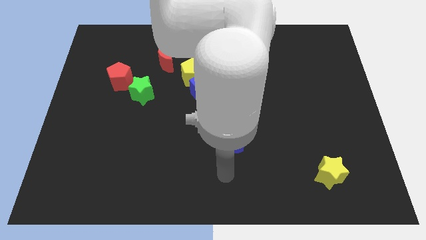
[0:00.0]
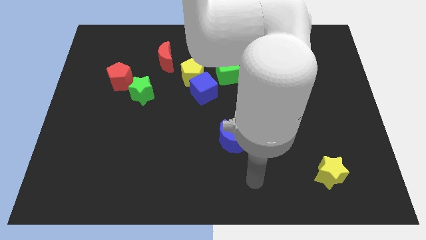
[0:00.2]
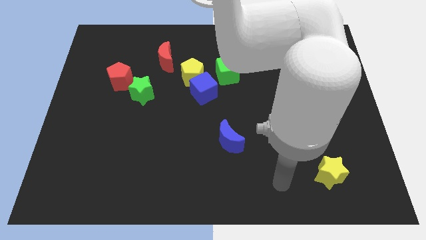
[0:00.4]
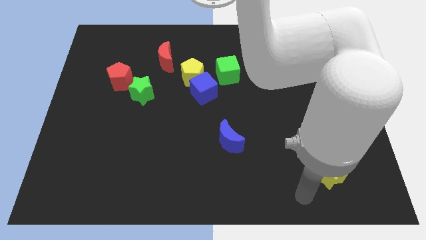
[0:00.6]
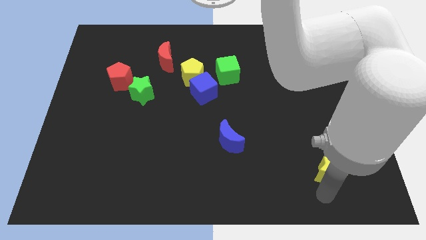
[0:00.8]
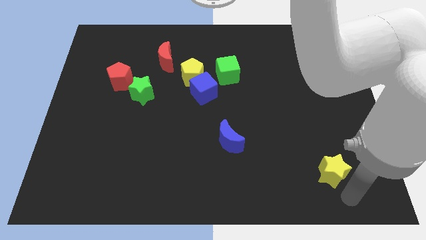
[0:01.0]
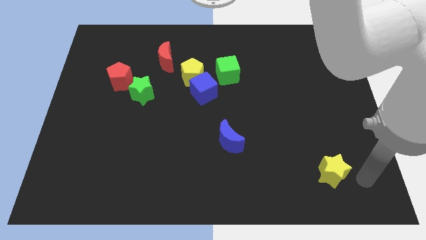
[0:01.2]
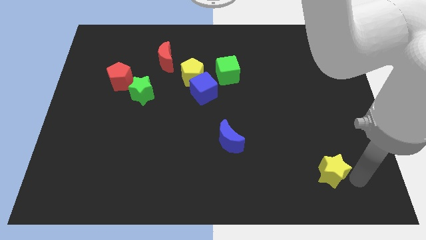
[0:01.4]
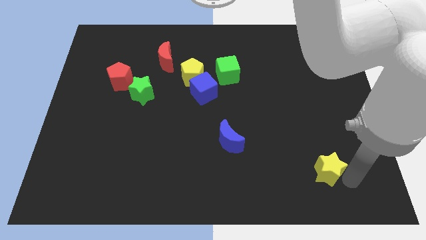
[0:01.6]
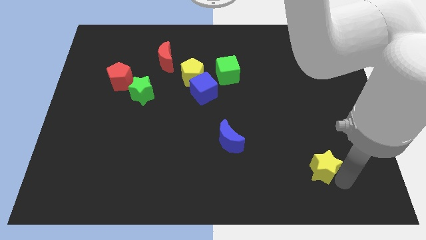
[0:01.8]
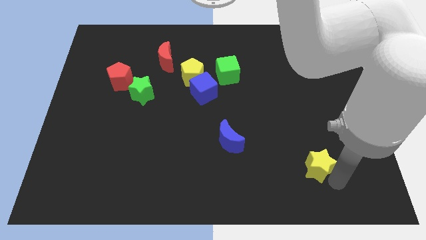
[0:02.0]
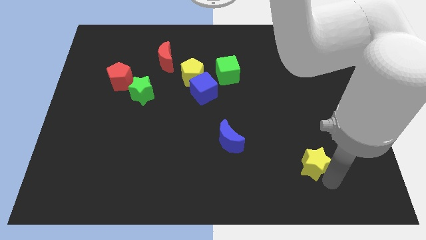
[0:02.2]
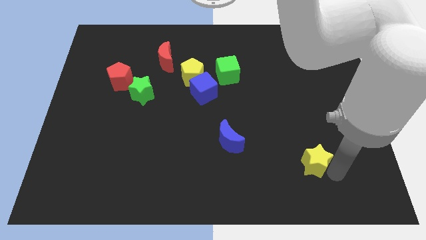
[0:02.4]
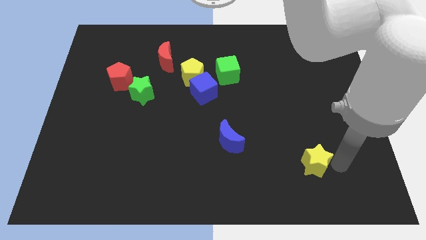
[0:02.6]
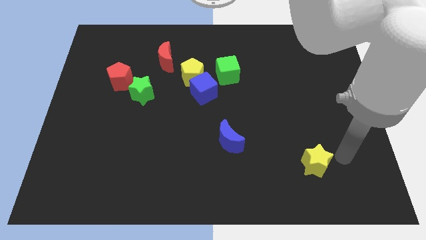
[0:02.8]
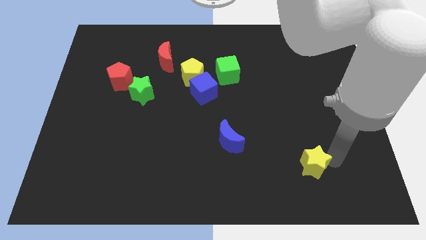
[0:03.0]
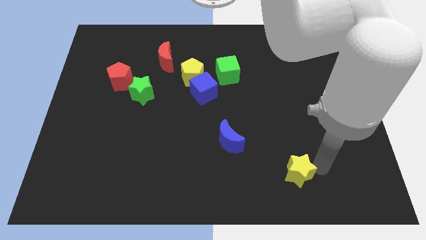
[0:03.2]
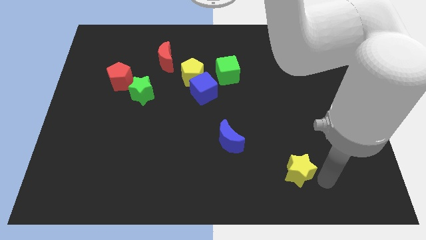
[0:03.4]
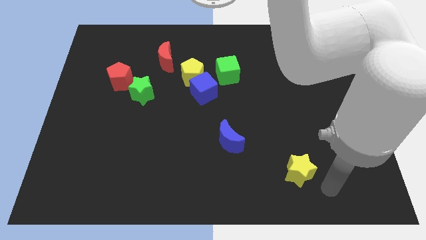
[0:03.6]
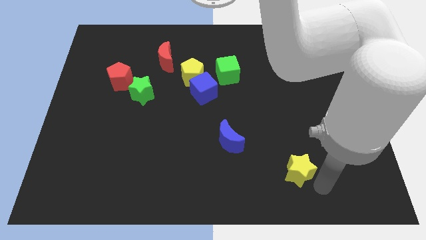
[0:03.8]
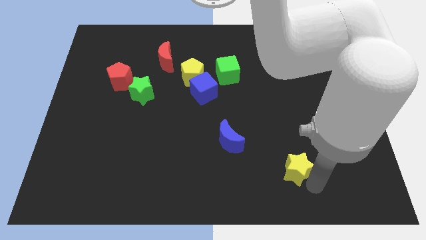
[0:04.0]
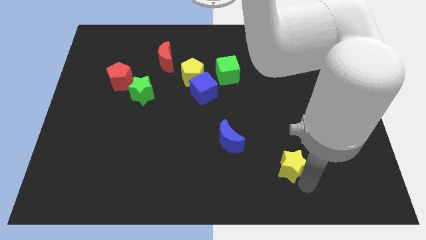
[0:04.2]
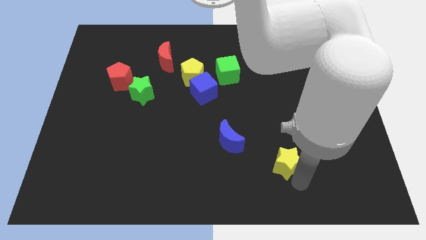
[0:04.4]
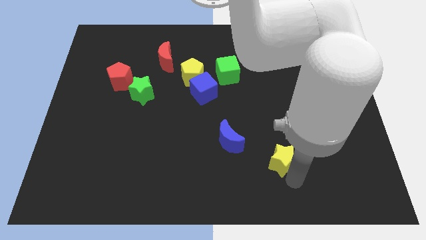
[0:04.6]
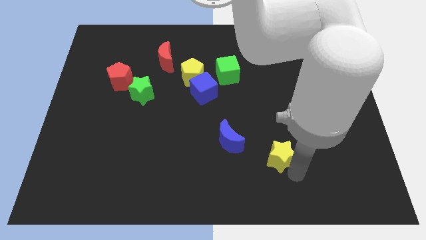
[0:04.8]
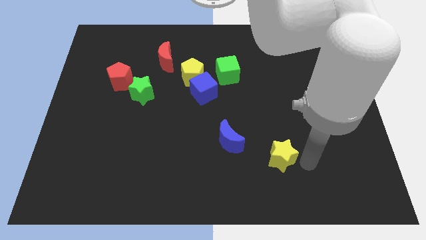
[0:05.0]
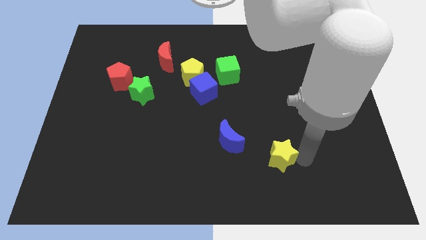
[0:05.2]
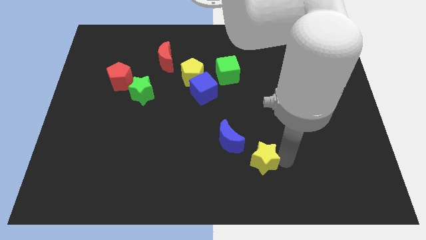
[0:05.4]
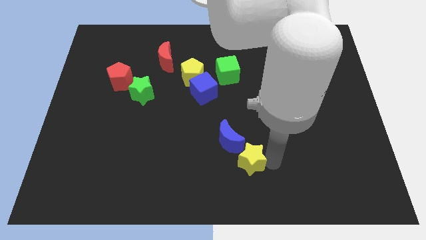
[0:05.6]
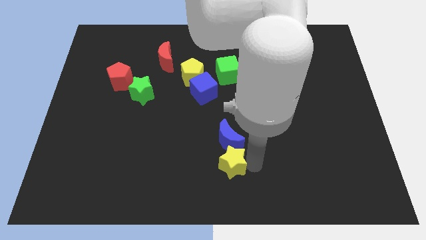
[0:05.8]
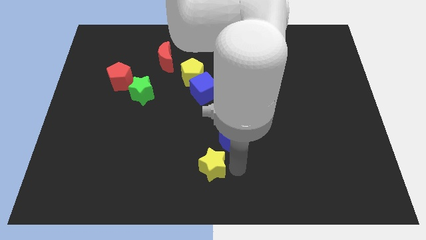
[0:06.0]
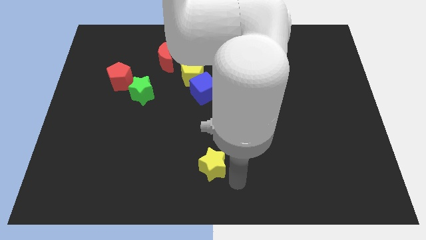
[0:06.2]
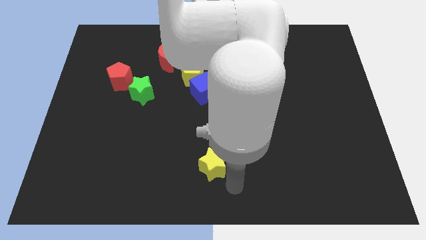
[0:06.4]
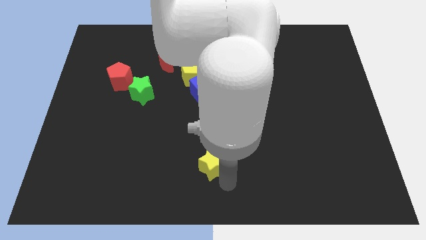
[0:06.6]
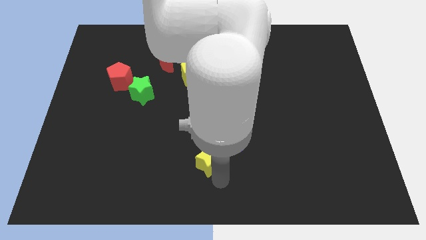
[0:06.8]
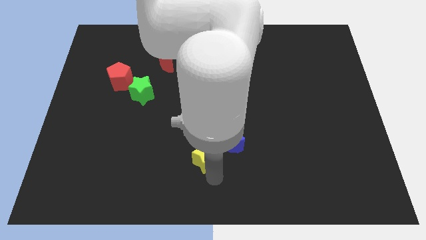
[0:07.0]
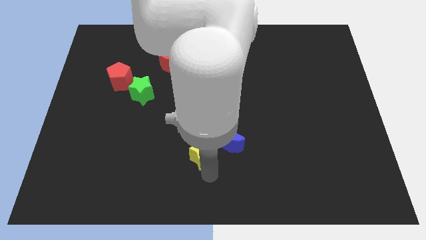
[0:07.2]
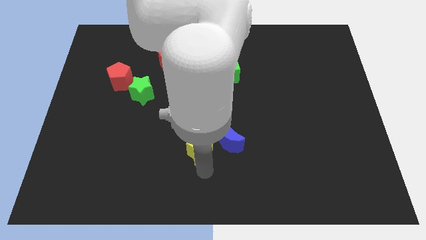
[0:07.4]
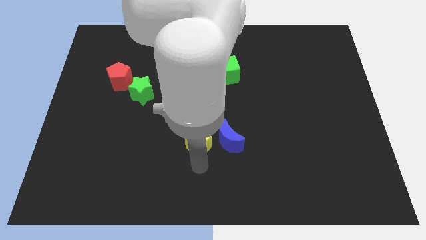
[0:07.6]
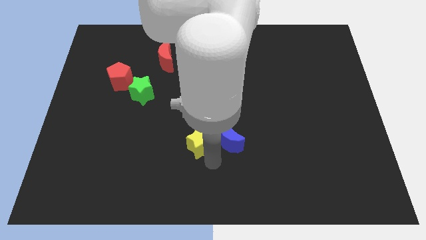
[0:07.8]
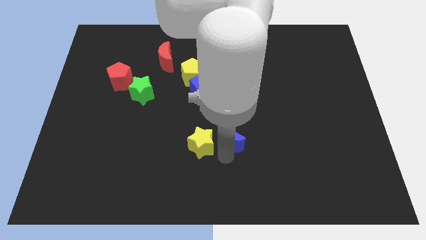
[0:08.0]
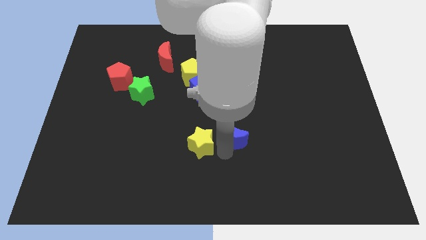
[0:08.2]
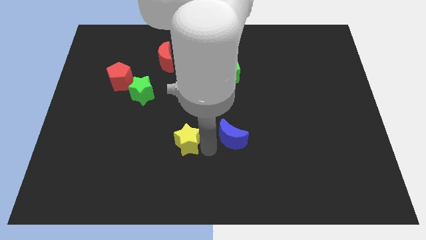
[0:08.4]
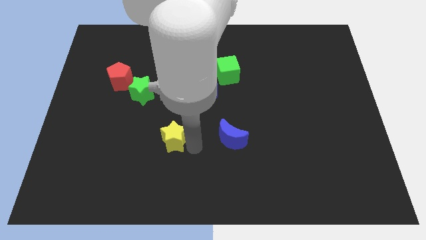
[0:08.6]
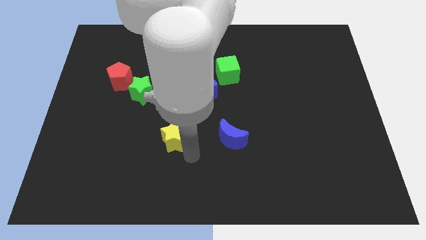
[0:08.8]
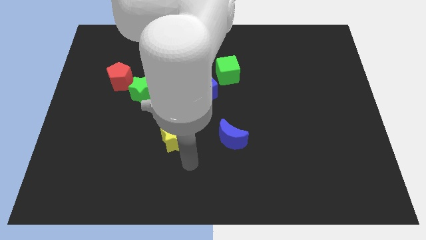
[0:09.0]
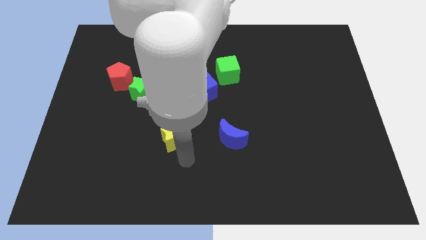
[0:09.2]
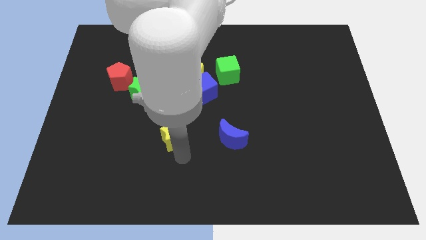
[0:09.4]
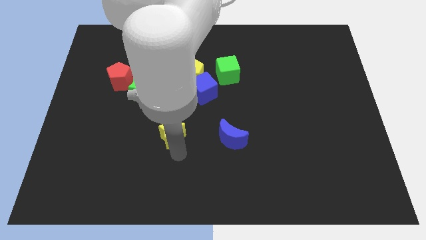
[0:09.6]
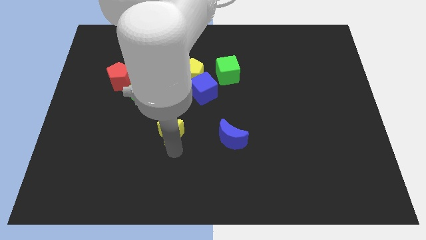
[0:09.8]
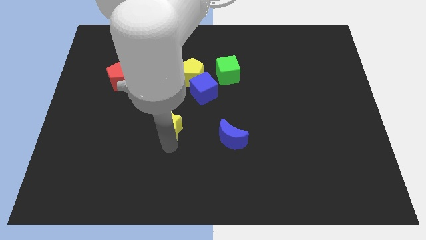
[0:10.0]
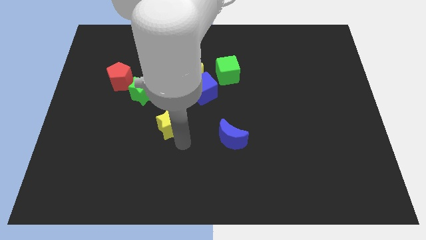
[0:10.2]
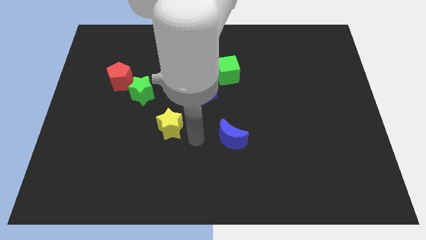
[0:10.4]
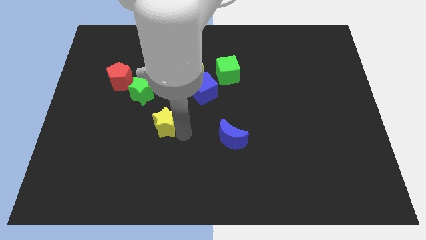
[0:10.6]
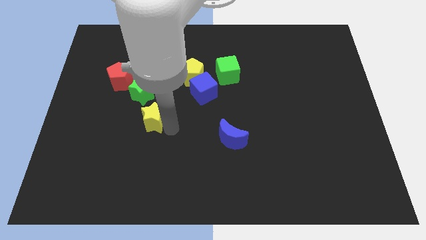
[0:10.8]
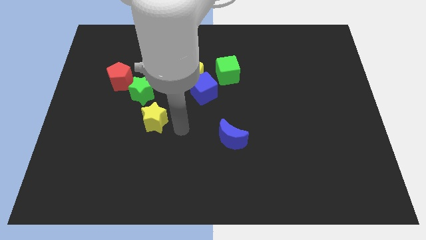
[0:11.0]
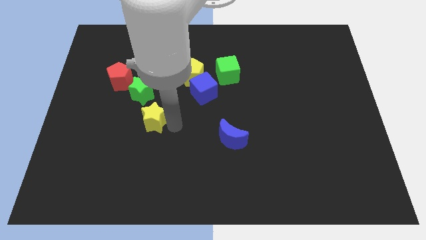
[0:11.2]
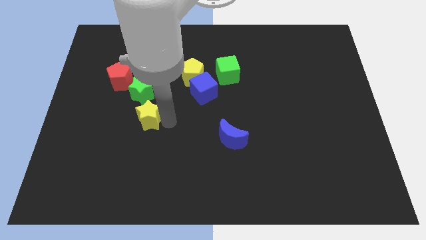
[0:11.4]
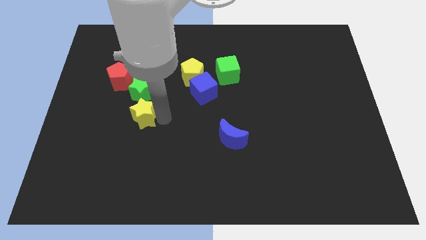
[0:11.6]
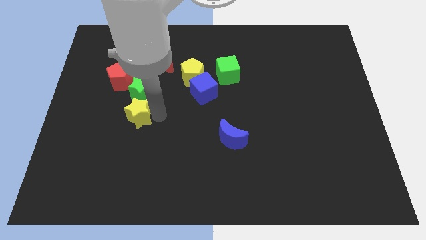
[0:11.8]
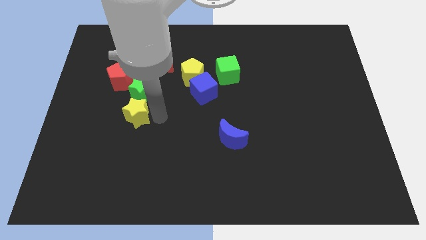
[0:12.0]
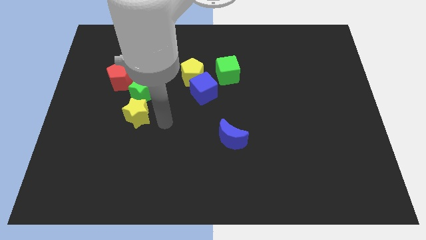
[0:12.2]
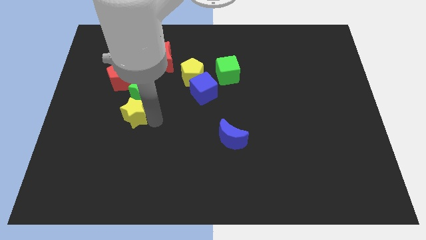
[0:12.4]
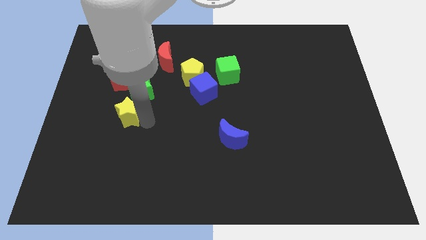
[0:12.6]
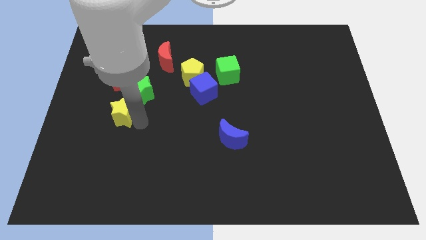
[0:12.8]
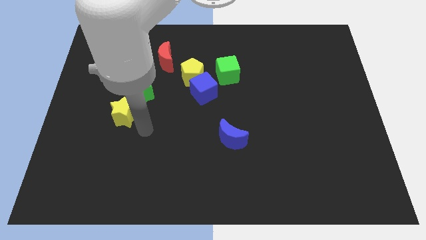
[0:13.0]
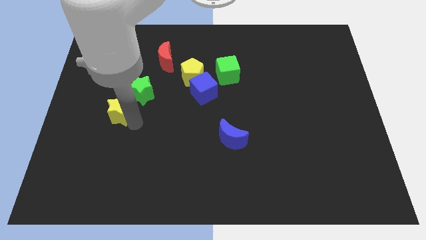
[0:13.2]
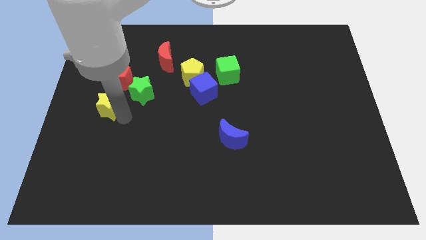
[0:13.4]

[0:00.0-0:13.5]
put the yellow star just left of the green star
